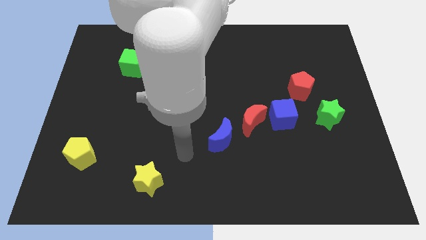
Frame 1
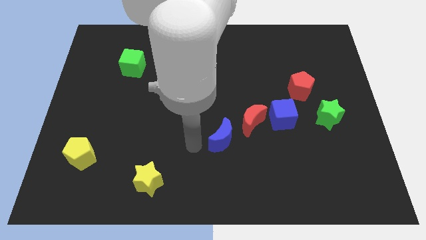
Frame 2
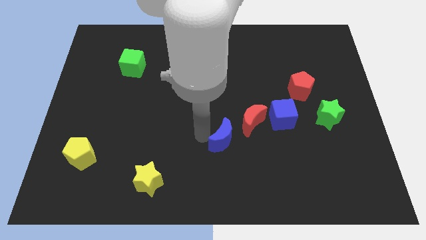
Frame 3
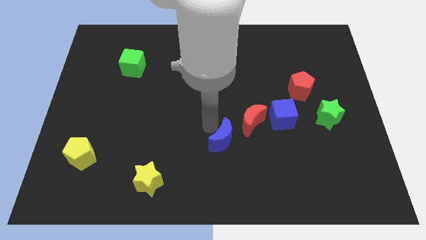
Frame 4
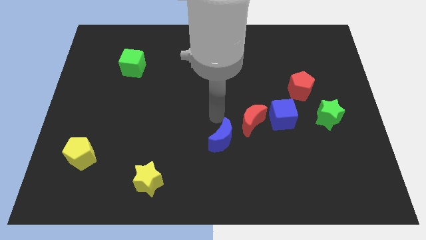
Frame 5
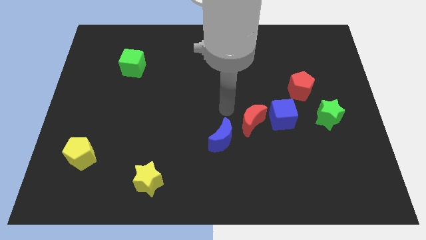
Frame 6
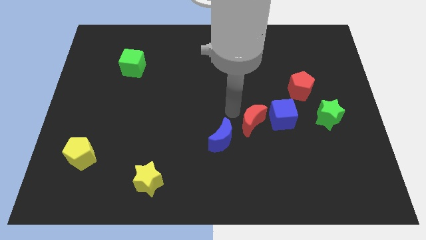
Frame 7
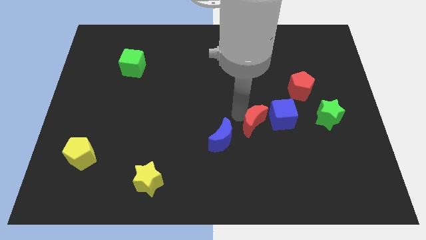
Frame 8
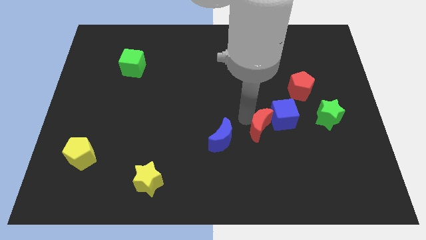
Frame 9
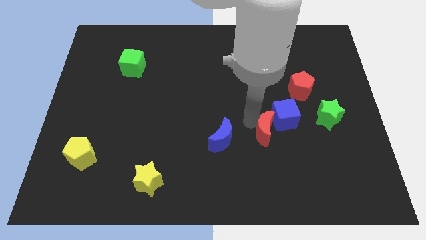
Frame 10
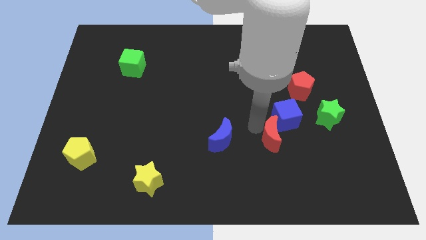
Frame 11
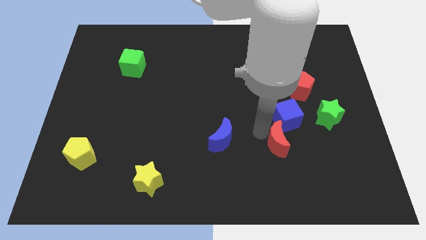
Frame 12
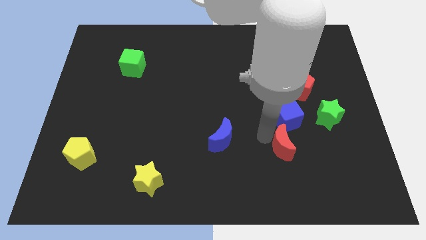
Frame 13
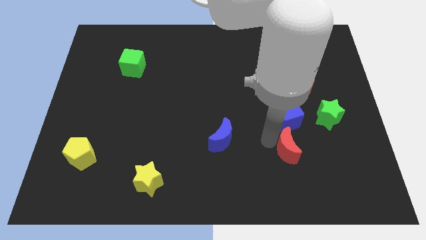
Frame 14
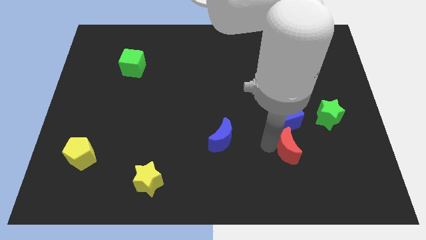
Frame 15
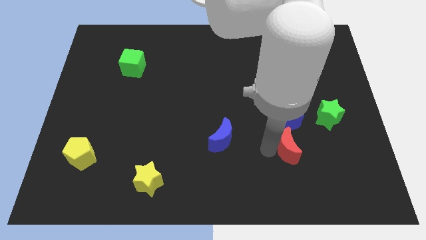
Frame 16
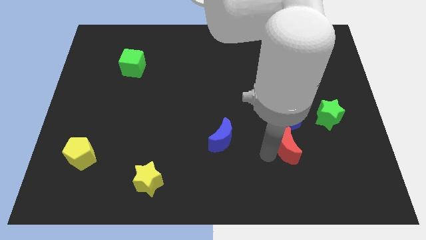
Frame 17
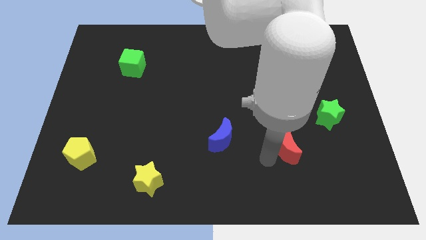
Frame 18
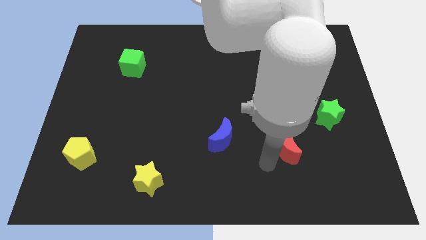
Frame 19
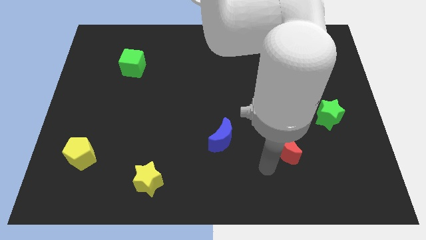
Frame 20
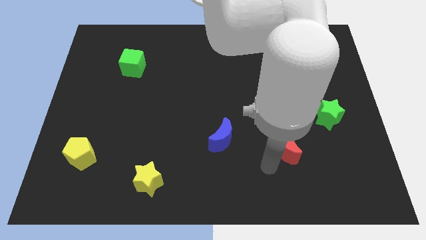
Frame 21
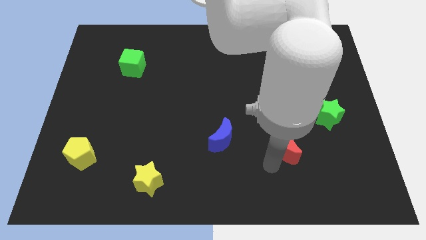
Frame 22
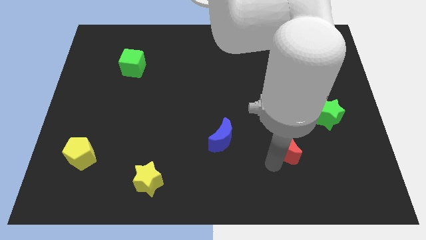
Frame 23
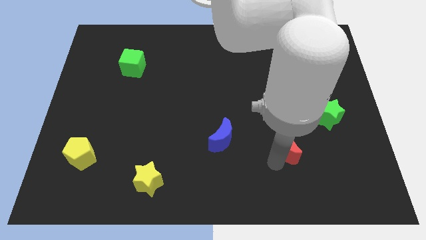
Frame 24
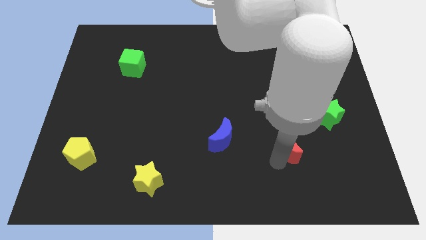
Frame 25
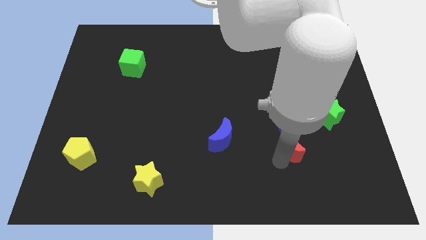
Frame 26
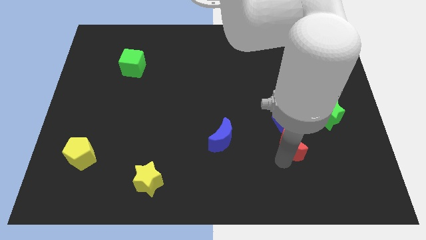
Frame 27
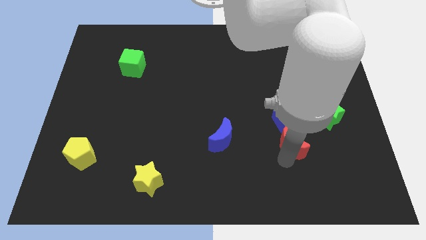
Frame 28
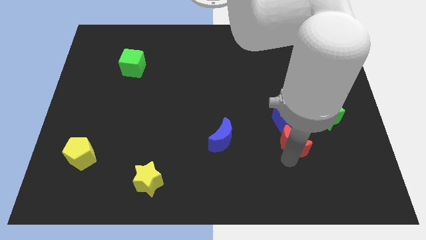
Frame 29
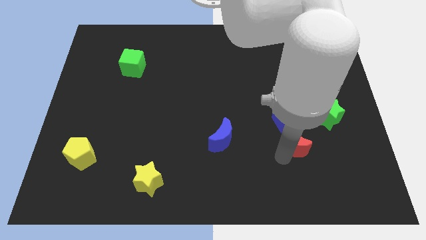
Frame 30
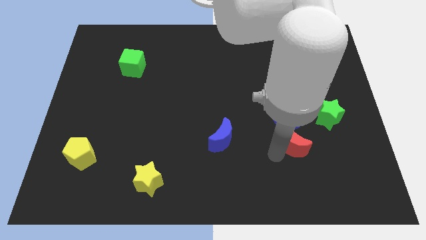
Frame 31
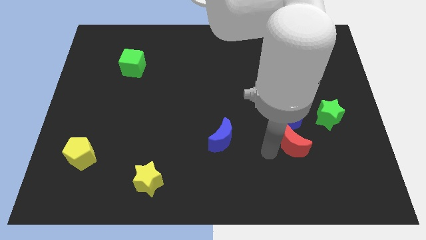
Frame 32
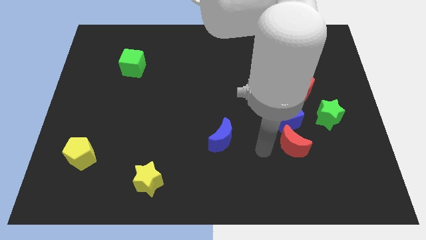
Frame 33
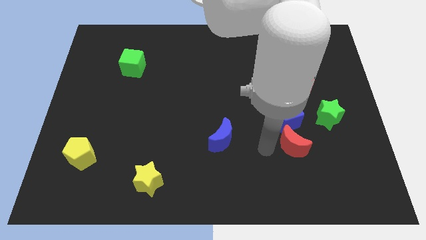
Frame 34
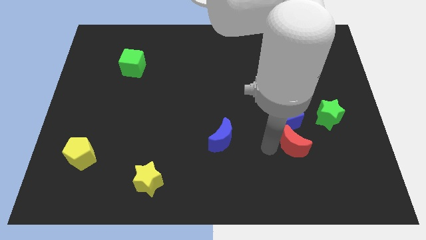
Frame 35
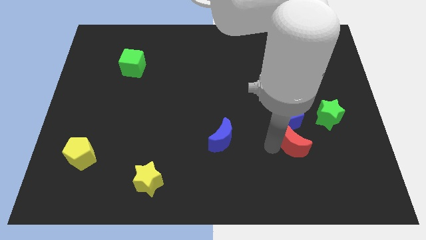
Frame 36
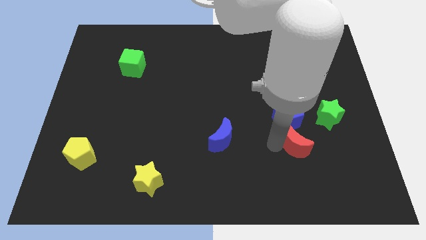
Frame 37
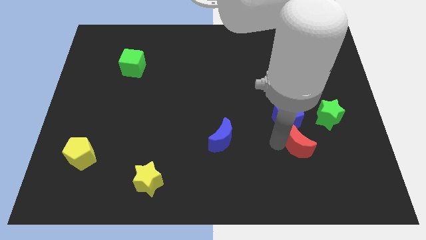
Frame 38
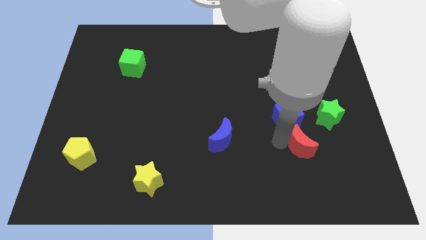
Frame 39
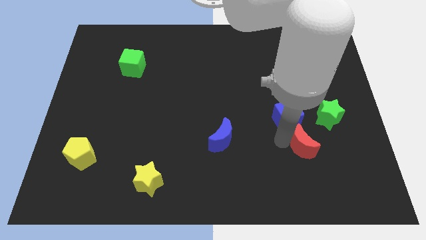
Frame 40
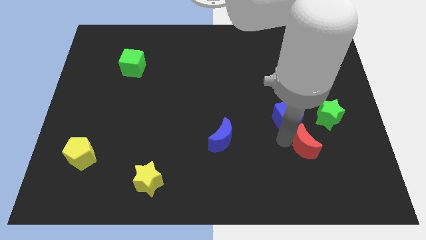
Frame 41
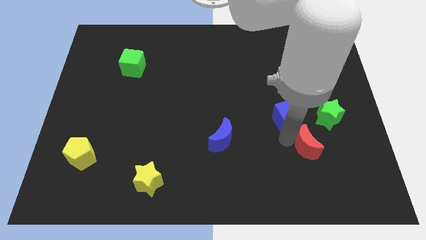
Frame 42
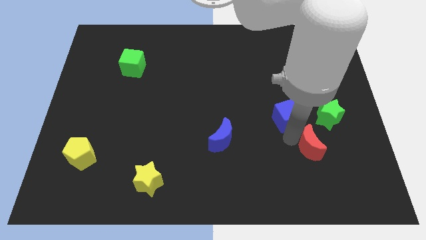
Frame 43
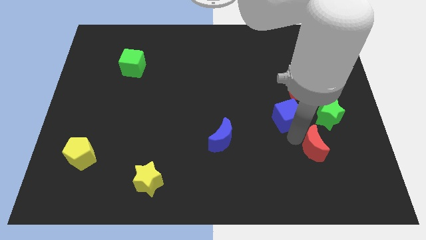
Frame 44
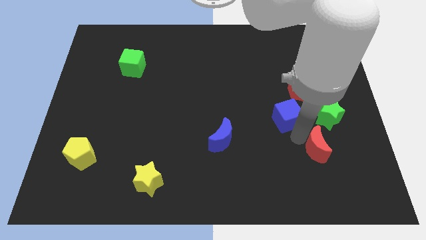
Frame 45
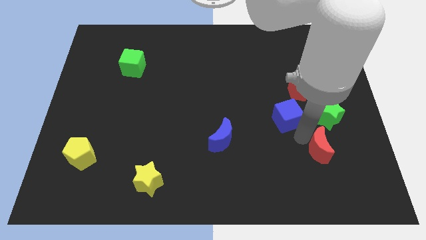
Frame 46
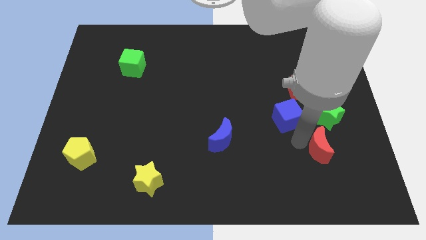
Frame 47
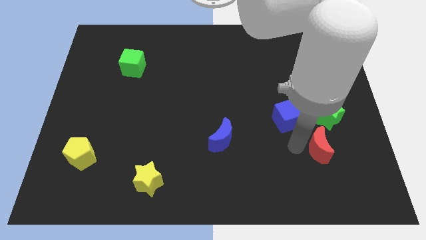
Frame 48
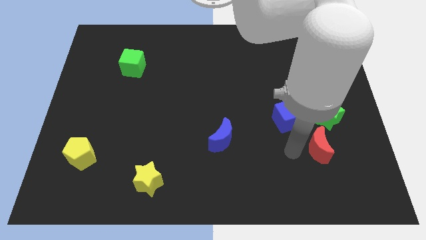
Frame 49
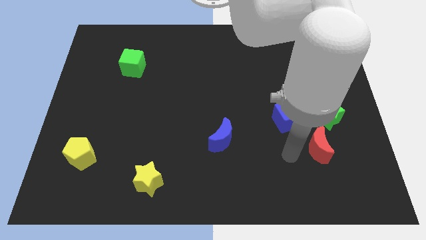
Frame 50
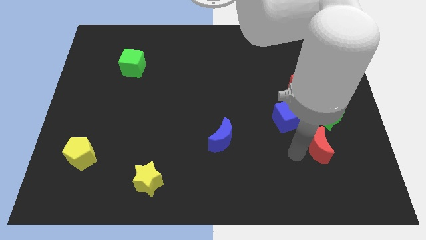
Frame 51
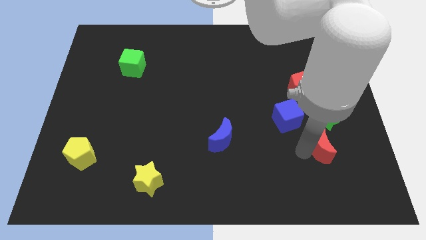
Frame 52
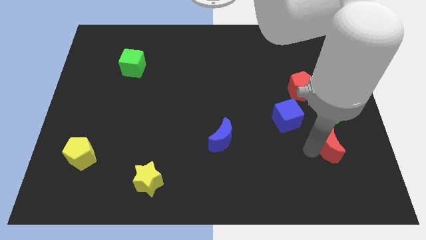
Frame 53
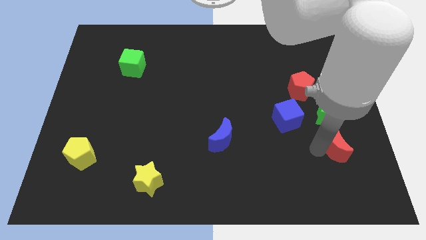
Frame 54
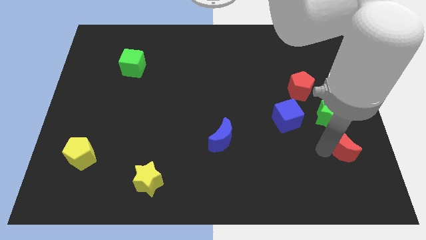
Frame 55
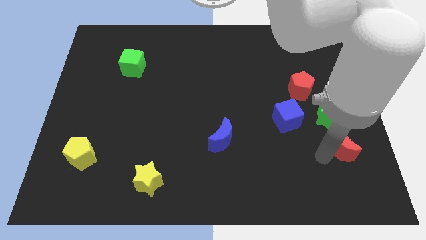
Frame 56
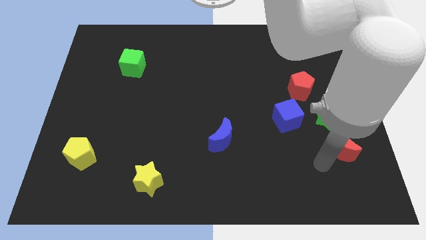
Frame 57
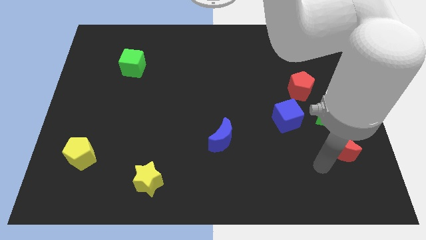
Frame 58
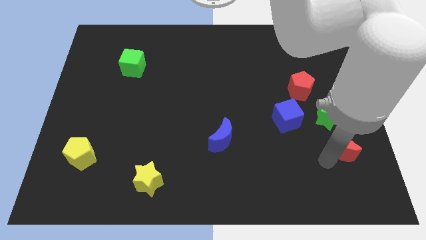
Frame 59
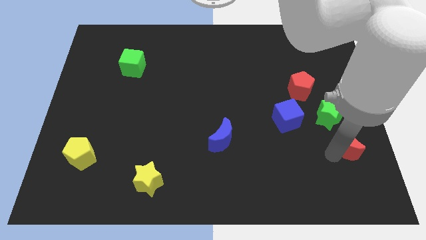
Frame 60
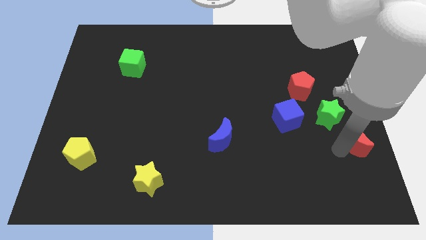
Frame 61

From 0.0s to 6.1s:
move the red moon to the right side

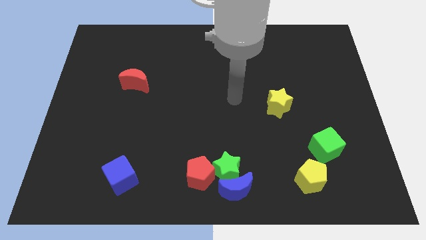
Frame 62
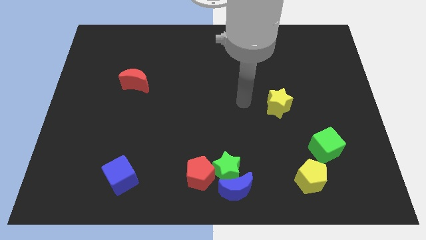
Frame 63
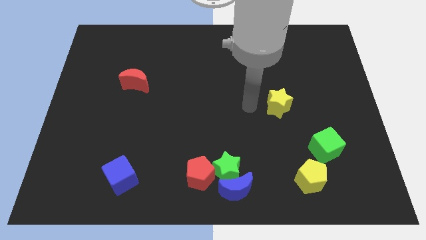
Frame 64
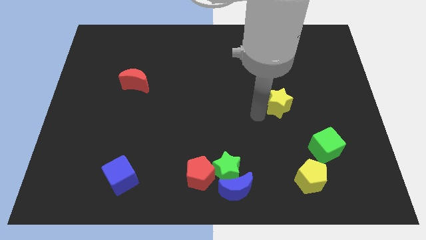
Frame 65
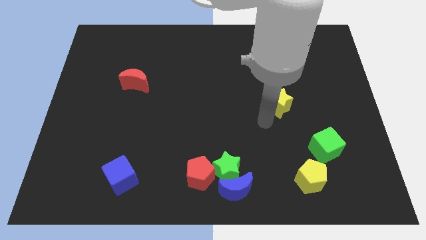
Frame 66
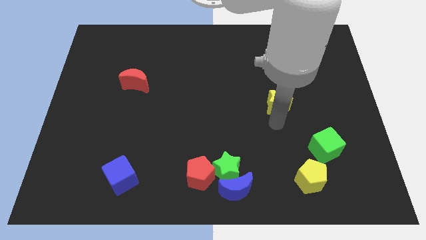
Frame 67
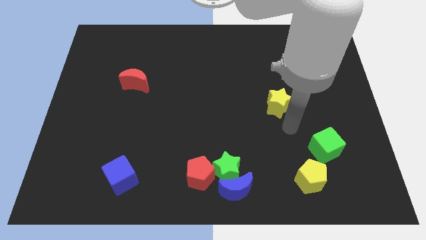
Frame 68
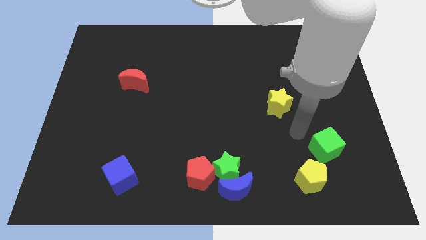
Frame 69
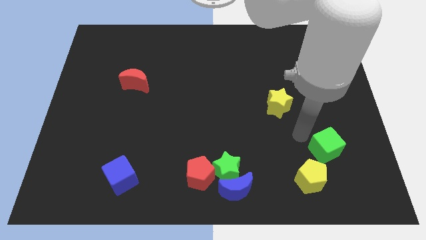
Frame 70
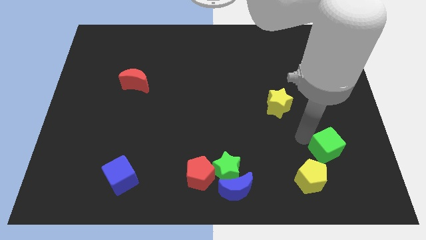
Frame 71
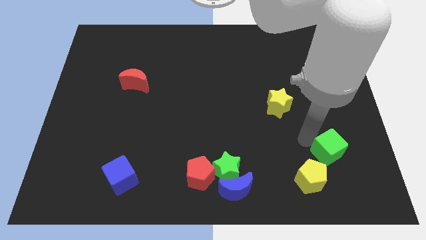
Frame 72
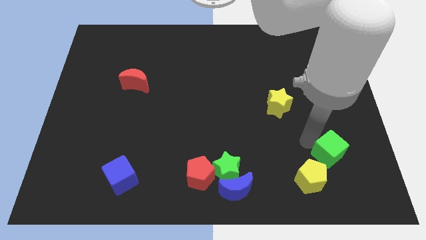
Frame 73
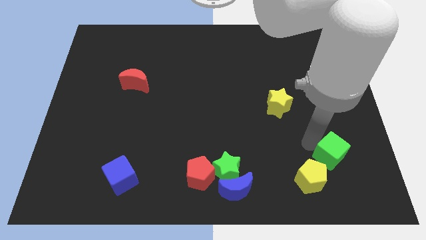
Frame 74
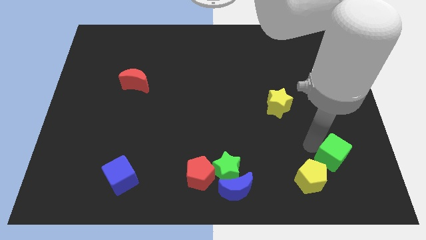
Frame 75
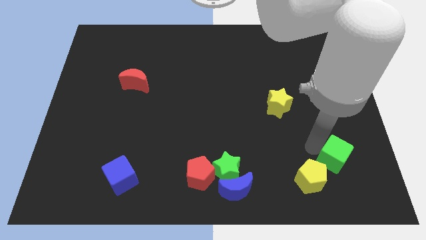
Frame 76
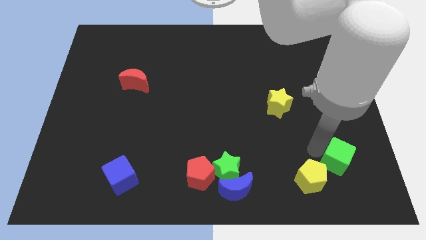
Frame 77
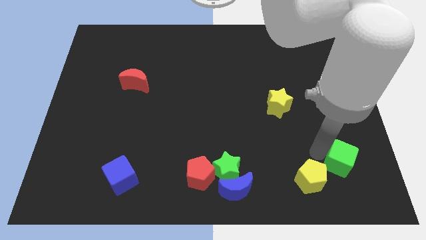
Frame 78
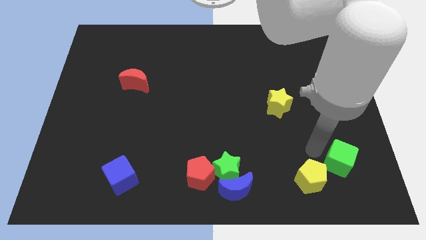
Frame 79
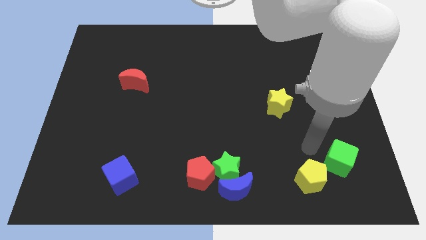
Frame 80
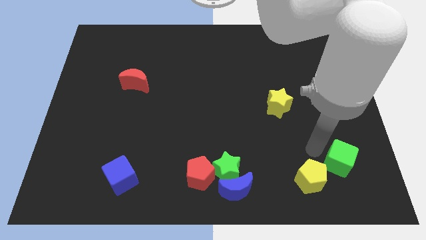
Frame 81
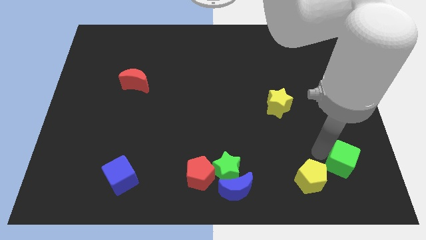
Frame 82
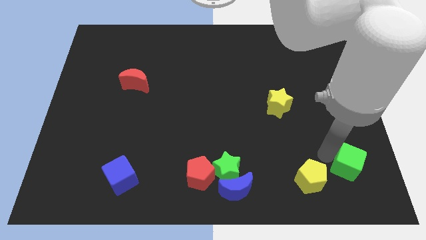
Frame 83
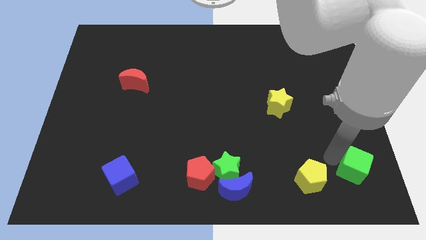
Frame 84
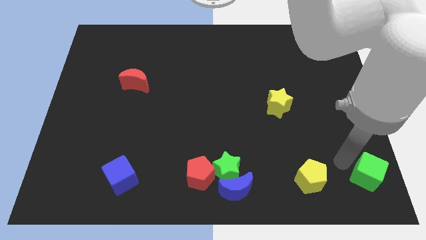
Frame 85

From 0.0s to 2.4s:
slide the green cube to the bottom right corner
